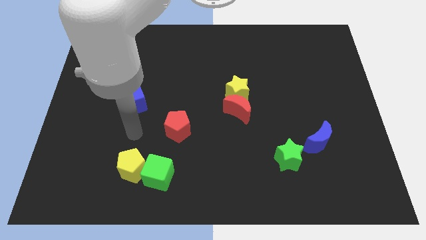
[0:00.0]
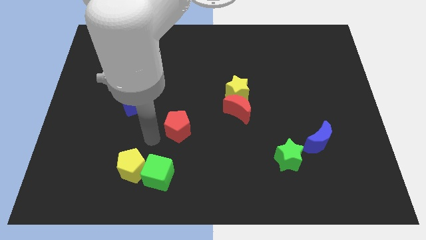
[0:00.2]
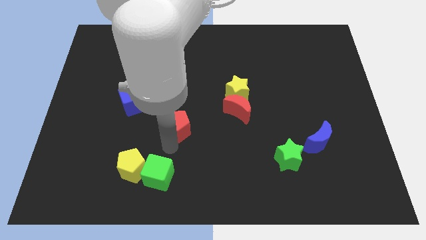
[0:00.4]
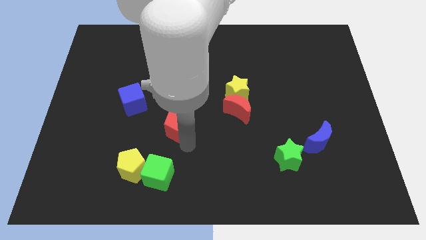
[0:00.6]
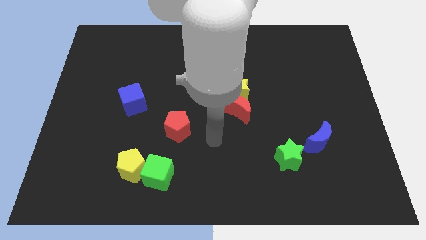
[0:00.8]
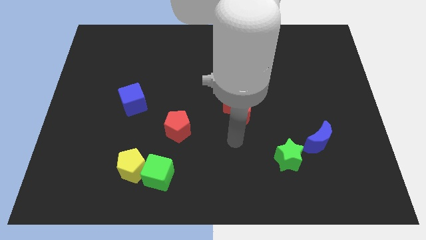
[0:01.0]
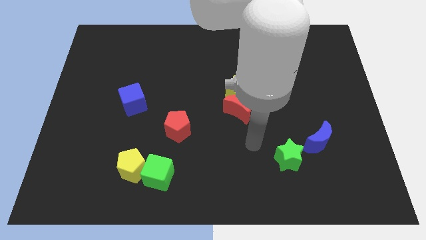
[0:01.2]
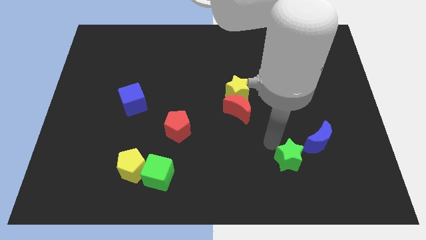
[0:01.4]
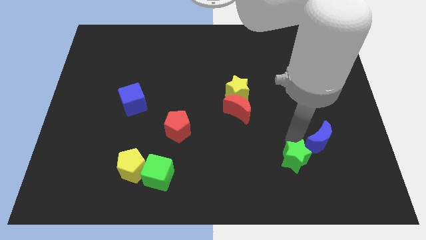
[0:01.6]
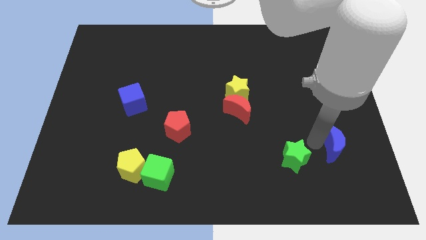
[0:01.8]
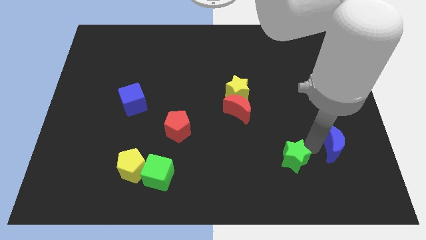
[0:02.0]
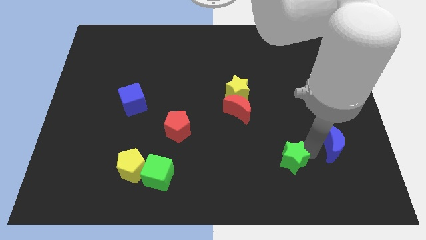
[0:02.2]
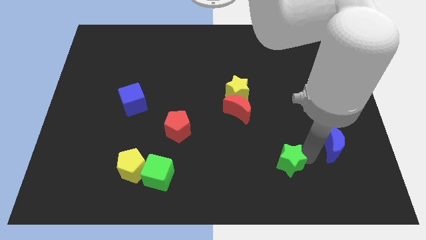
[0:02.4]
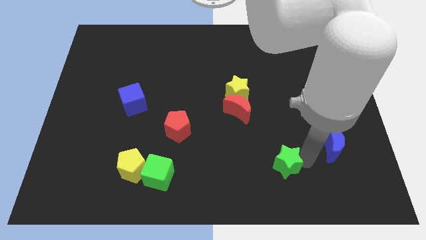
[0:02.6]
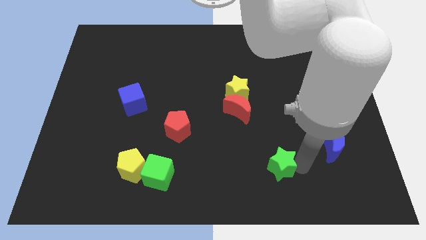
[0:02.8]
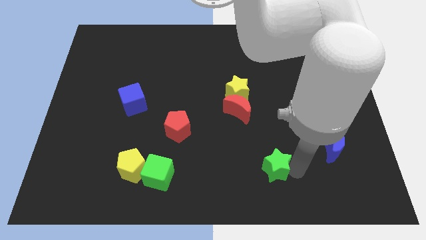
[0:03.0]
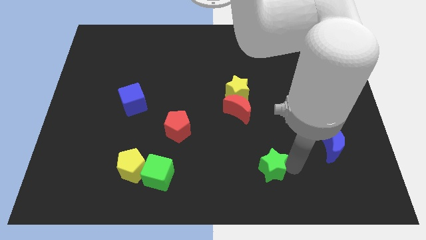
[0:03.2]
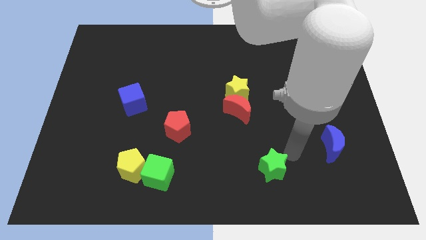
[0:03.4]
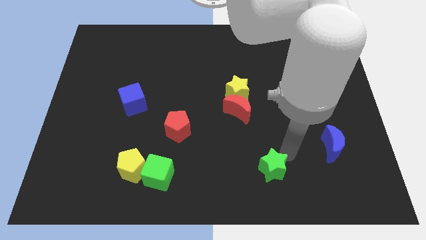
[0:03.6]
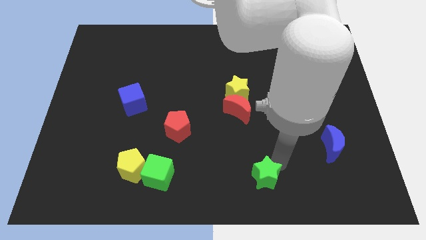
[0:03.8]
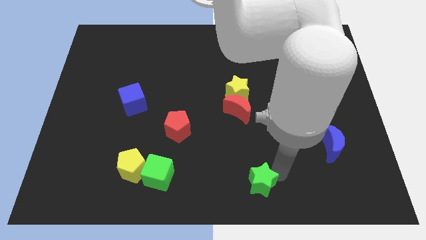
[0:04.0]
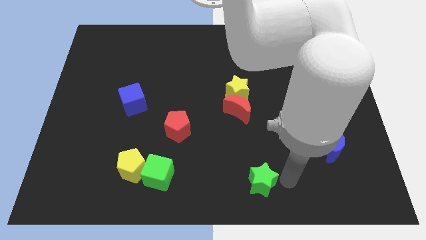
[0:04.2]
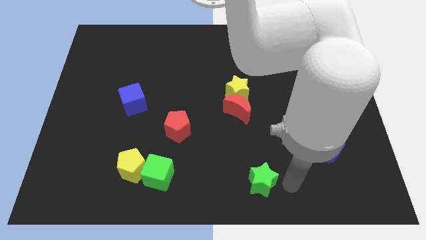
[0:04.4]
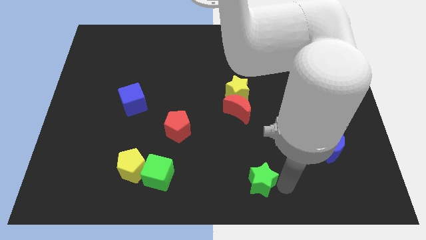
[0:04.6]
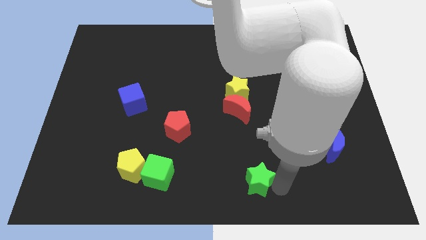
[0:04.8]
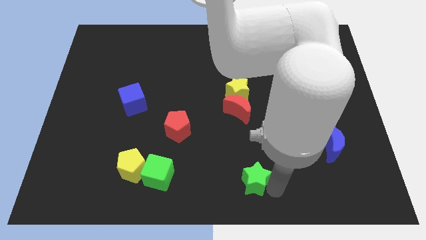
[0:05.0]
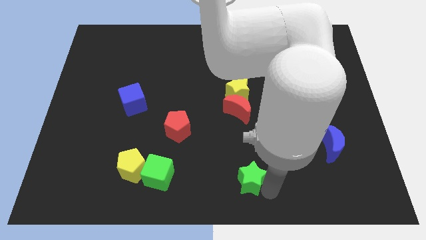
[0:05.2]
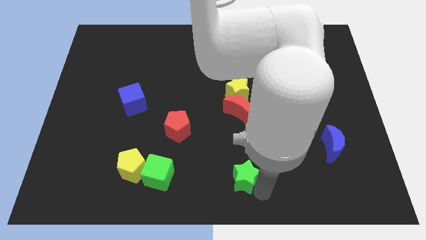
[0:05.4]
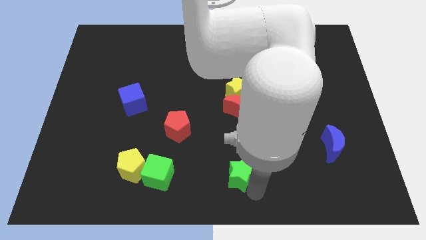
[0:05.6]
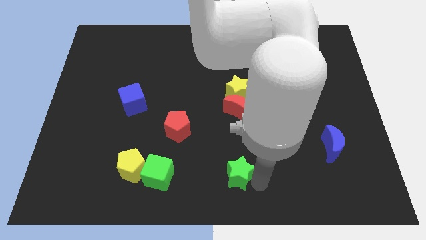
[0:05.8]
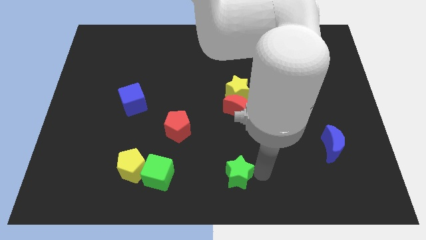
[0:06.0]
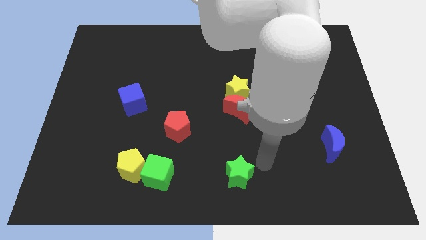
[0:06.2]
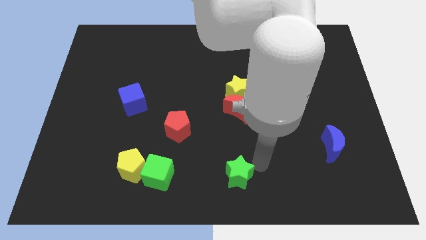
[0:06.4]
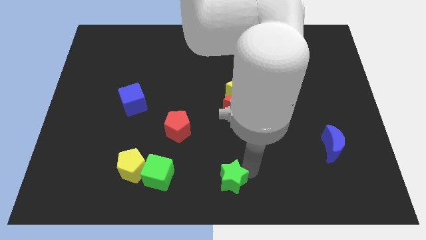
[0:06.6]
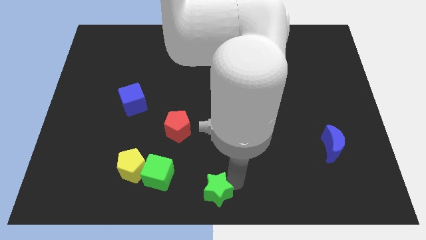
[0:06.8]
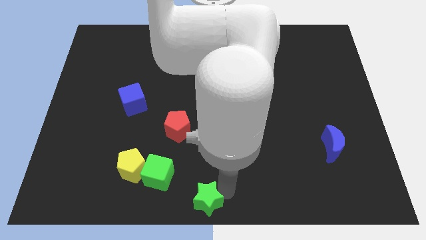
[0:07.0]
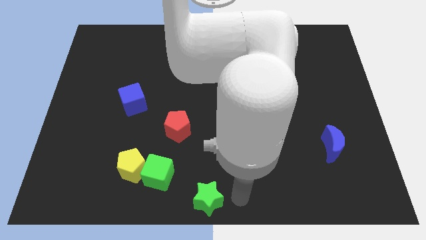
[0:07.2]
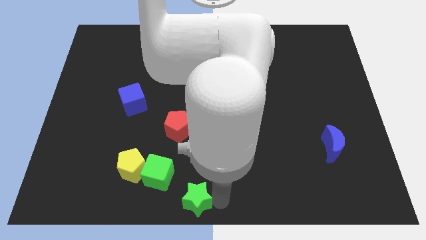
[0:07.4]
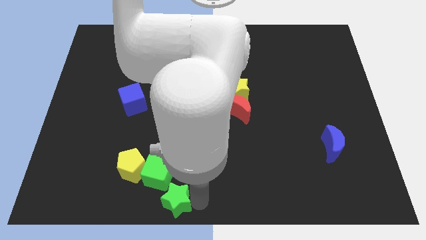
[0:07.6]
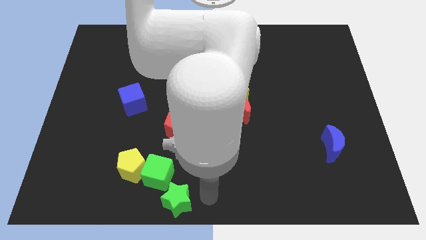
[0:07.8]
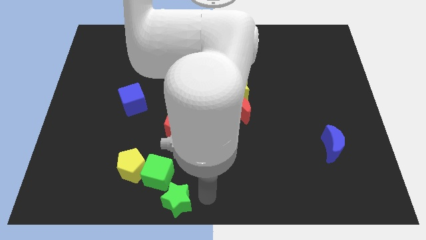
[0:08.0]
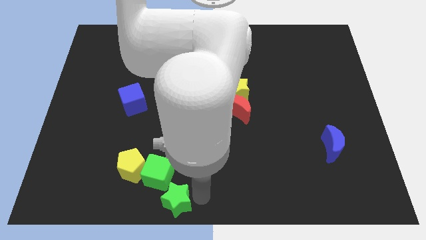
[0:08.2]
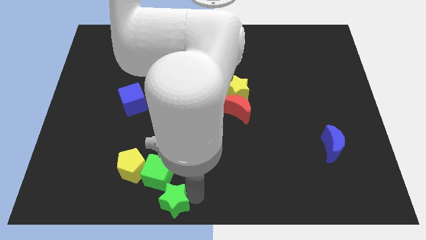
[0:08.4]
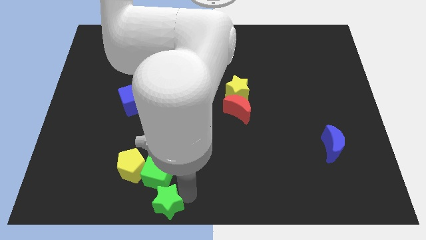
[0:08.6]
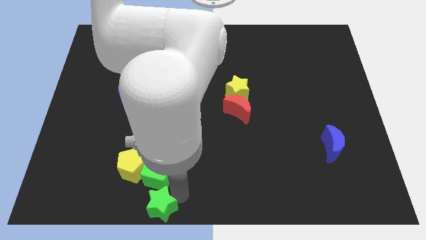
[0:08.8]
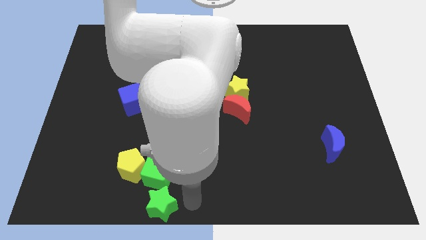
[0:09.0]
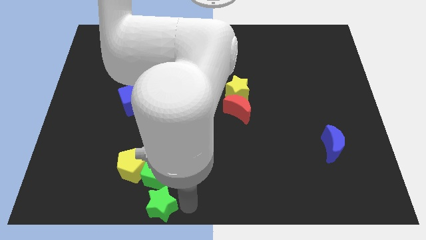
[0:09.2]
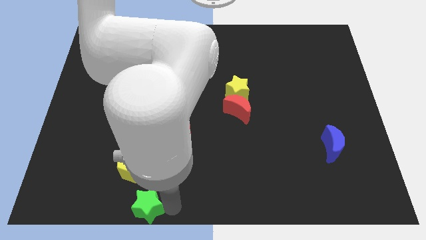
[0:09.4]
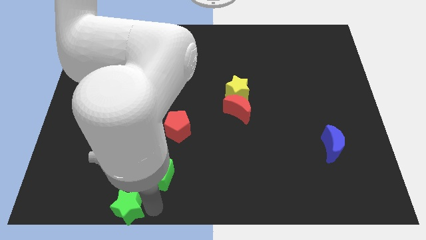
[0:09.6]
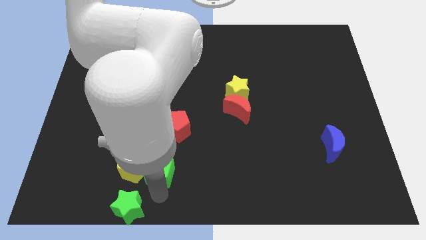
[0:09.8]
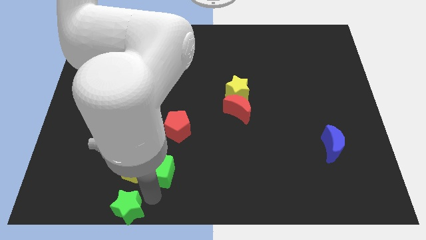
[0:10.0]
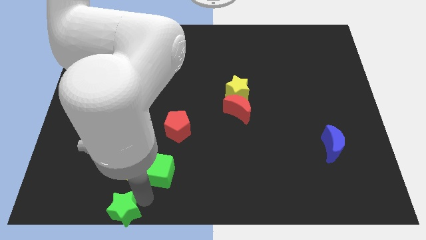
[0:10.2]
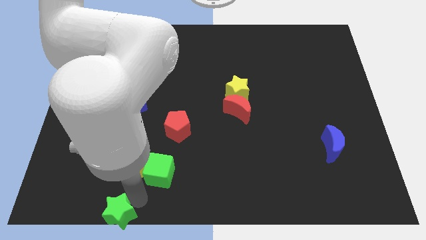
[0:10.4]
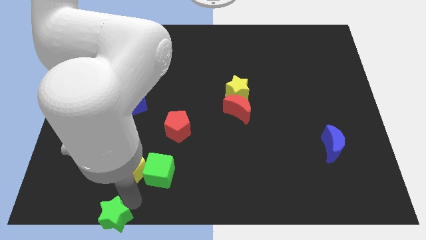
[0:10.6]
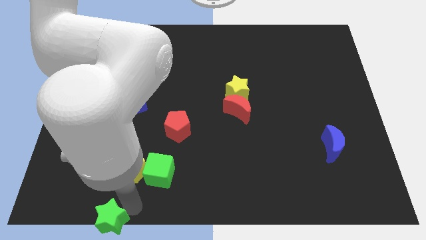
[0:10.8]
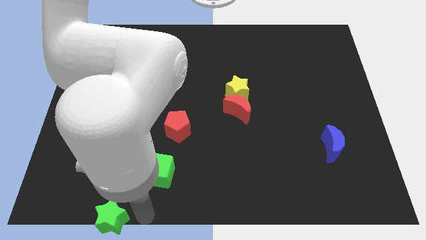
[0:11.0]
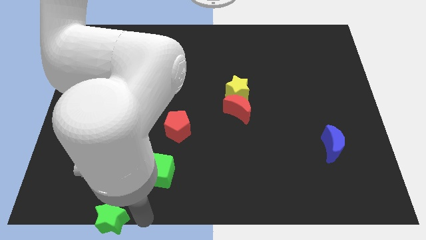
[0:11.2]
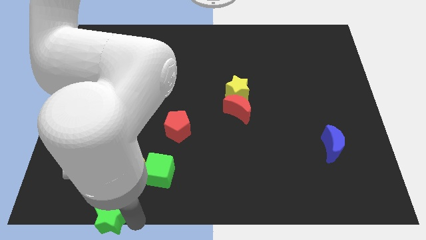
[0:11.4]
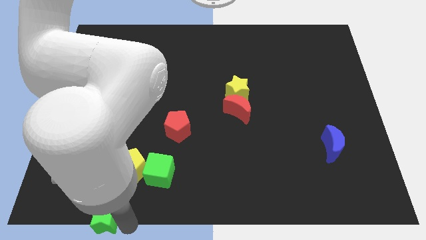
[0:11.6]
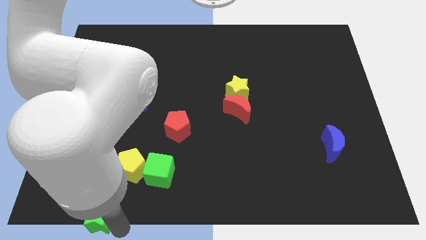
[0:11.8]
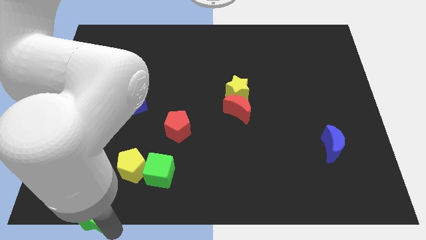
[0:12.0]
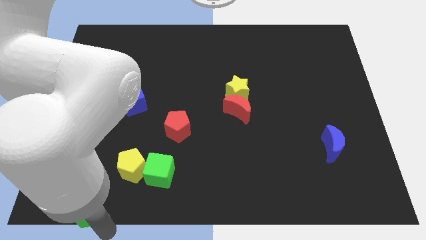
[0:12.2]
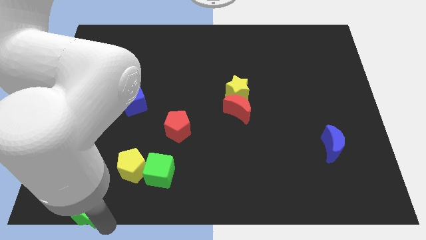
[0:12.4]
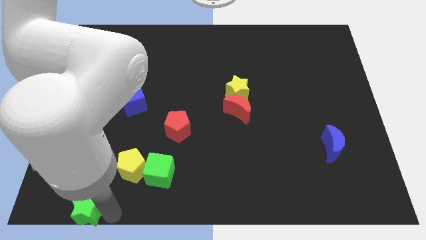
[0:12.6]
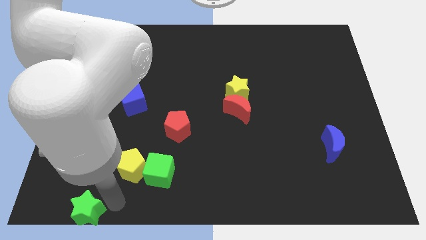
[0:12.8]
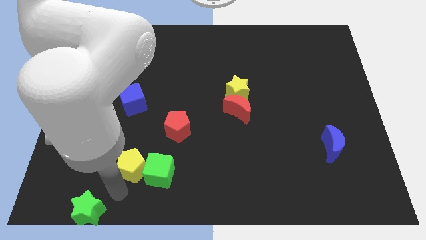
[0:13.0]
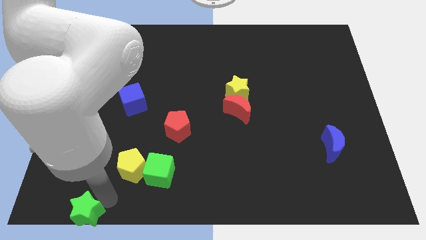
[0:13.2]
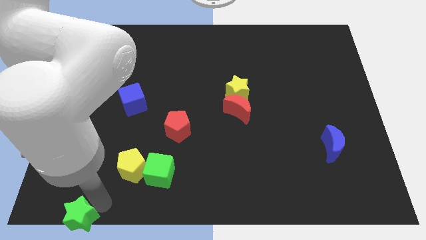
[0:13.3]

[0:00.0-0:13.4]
put the green star to the bottom left corner

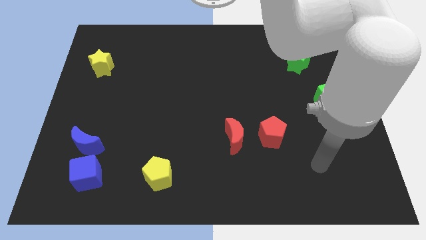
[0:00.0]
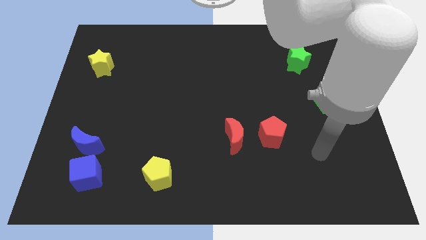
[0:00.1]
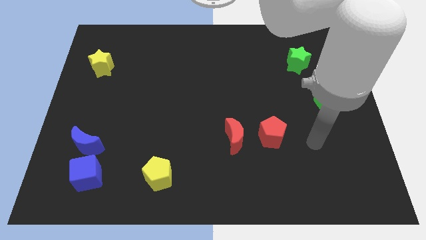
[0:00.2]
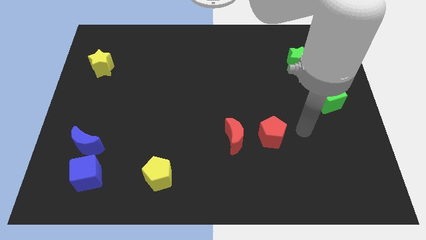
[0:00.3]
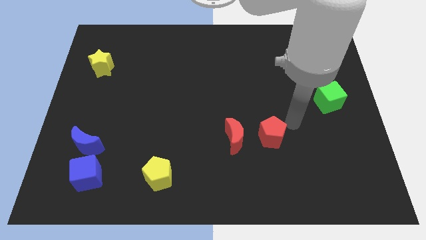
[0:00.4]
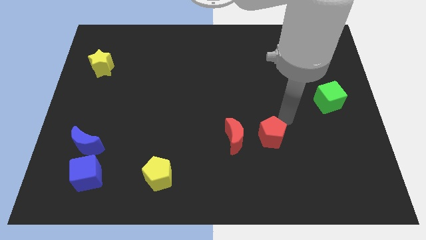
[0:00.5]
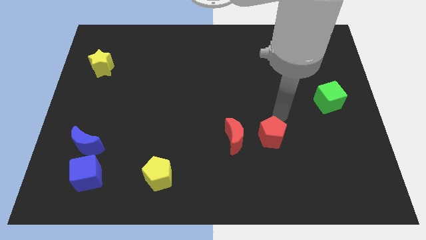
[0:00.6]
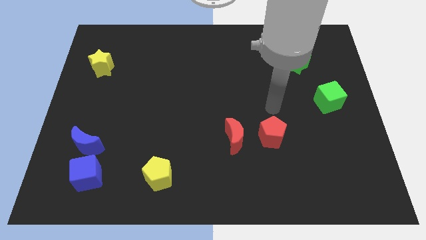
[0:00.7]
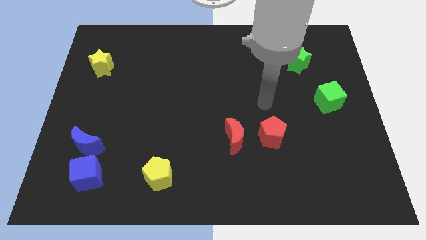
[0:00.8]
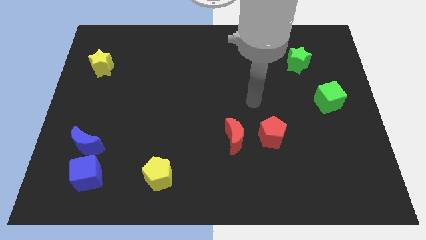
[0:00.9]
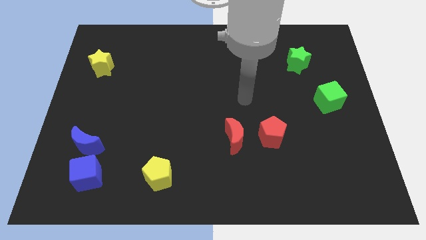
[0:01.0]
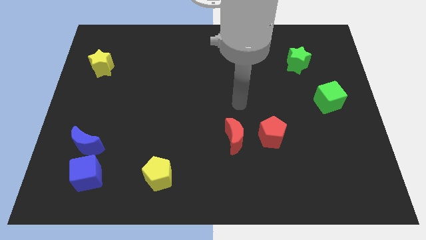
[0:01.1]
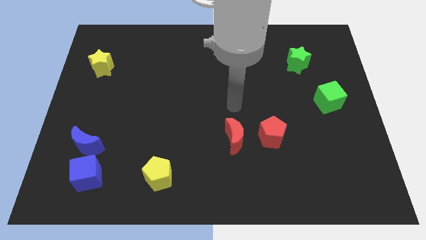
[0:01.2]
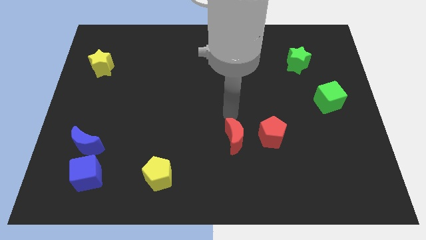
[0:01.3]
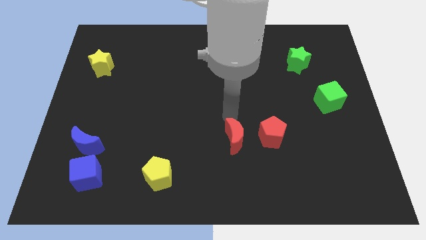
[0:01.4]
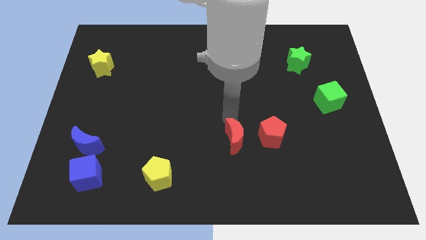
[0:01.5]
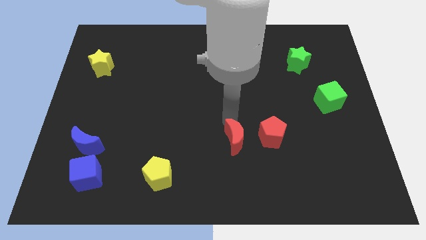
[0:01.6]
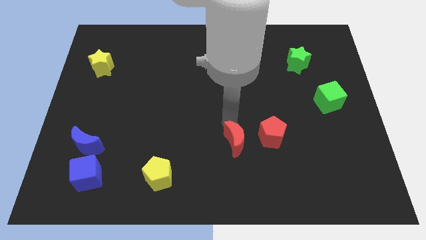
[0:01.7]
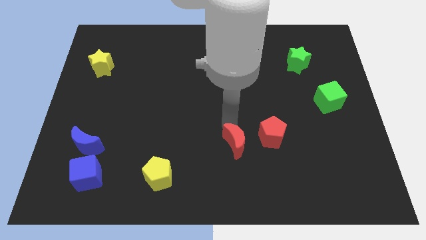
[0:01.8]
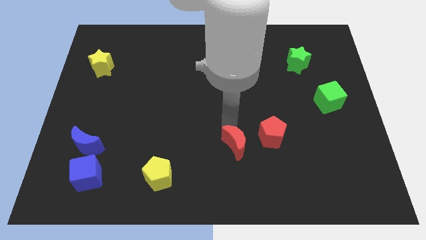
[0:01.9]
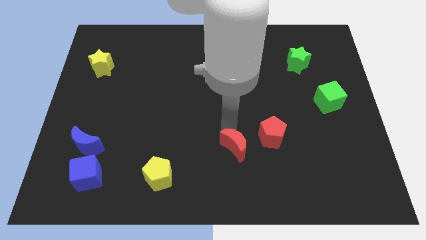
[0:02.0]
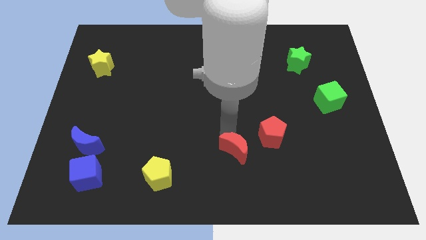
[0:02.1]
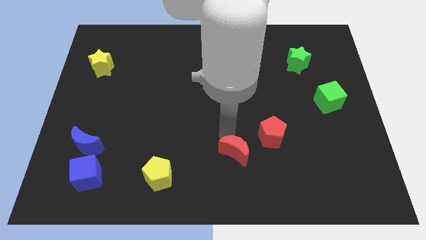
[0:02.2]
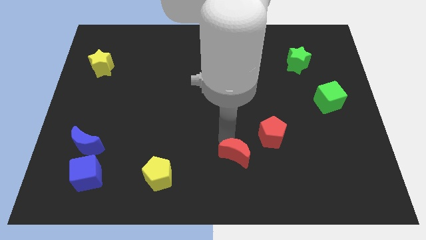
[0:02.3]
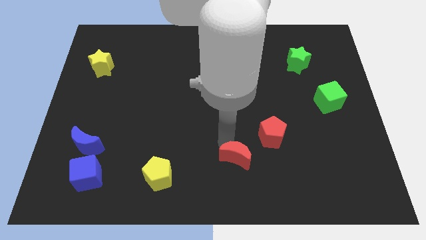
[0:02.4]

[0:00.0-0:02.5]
put the red moon to the bottom side
